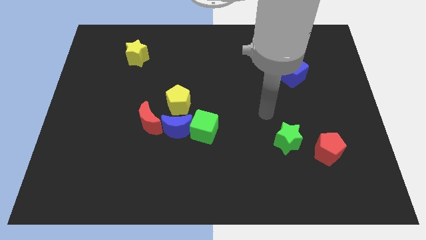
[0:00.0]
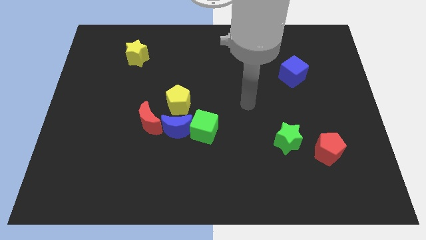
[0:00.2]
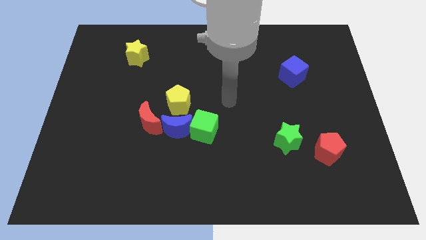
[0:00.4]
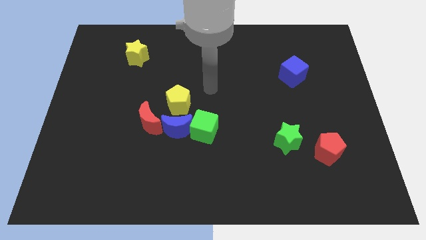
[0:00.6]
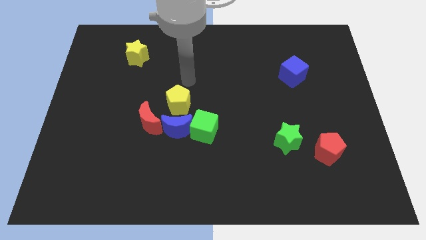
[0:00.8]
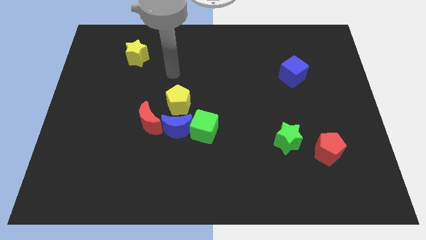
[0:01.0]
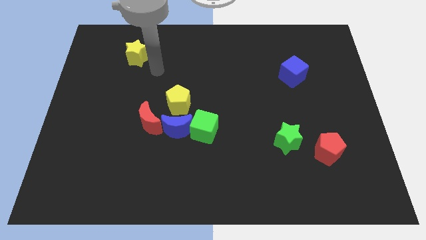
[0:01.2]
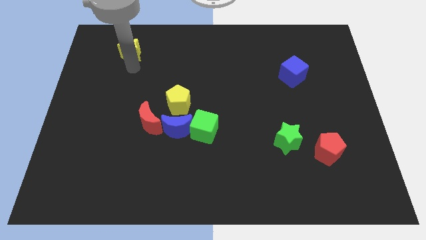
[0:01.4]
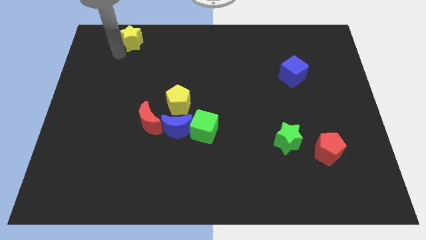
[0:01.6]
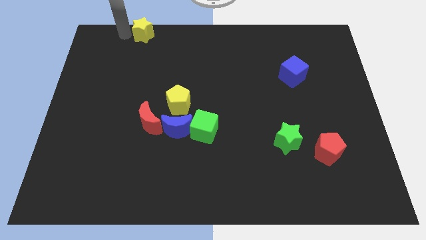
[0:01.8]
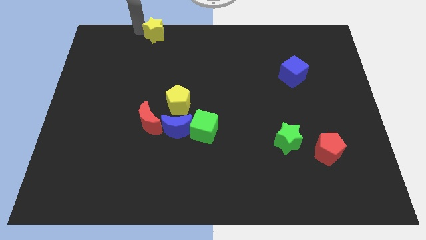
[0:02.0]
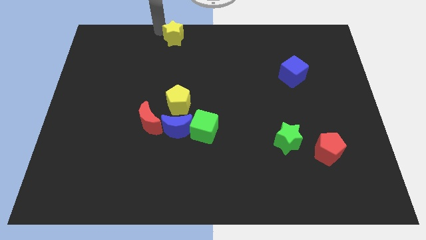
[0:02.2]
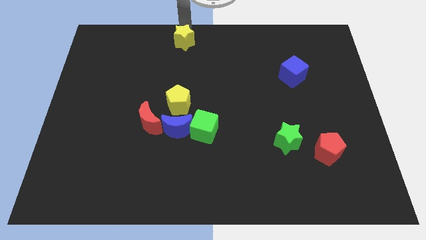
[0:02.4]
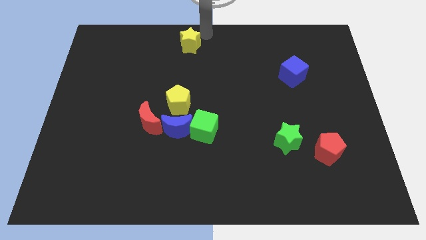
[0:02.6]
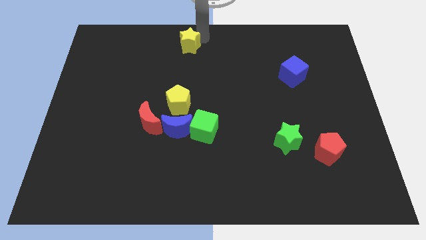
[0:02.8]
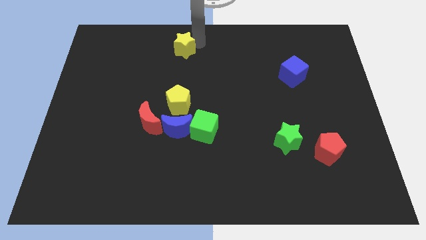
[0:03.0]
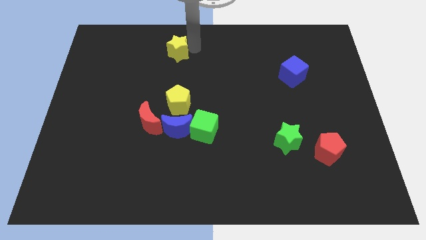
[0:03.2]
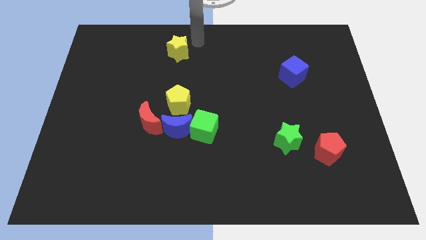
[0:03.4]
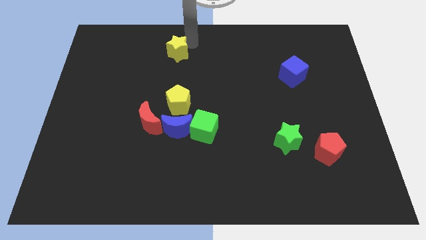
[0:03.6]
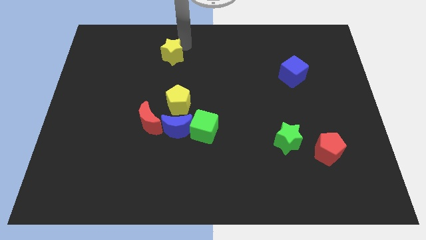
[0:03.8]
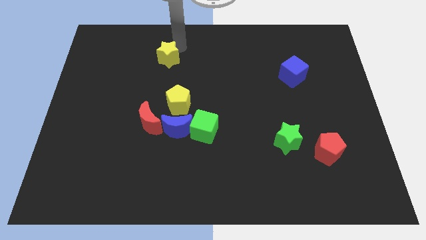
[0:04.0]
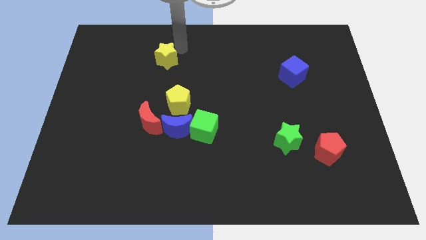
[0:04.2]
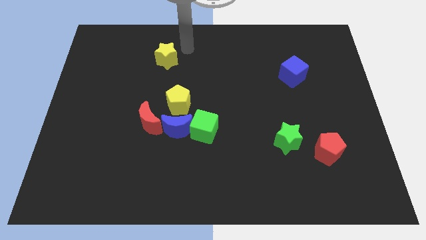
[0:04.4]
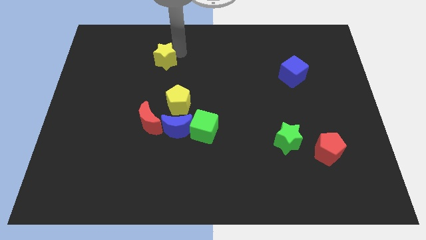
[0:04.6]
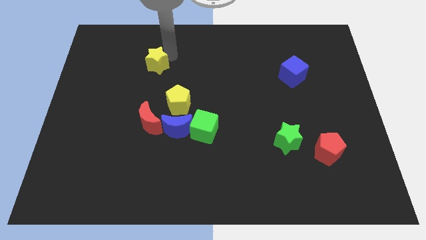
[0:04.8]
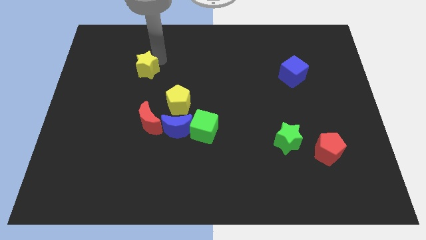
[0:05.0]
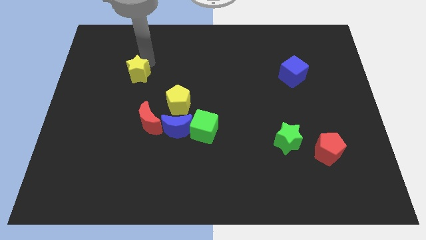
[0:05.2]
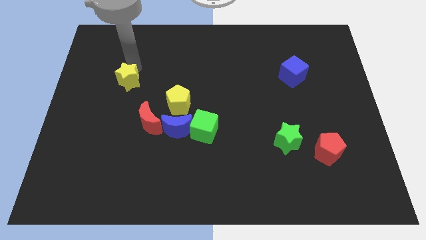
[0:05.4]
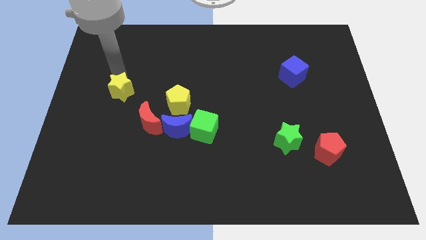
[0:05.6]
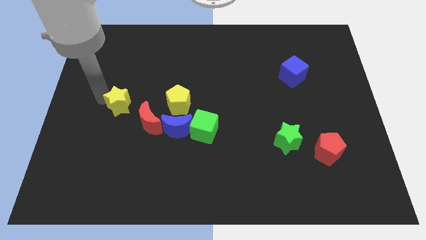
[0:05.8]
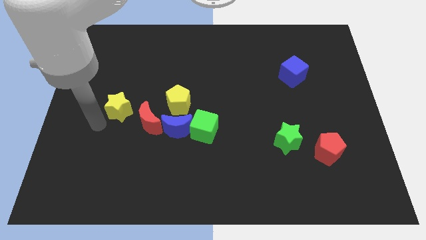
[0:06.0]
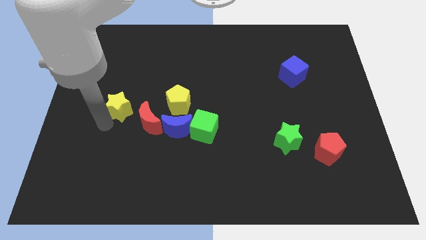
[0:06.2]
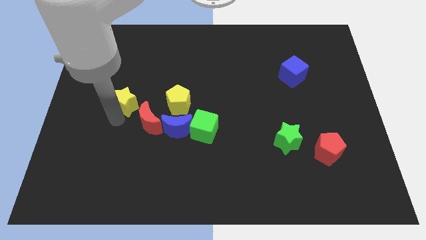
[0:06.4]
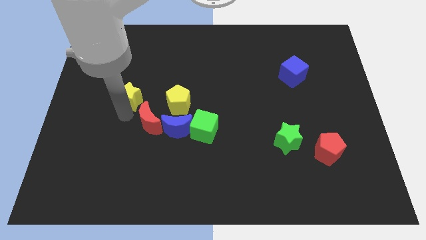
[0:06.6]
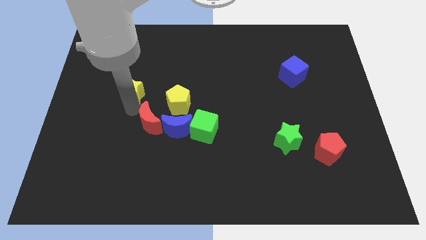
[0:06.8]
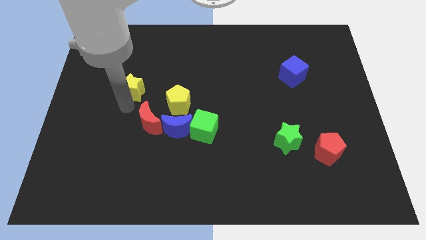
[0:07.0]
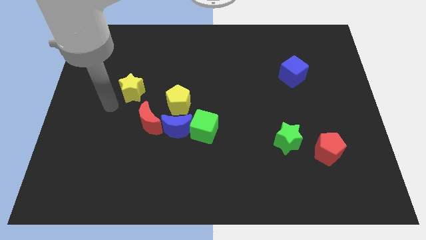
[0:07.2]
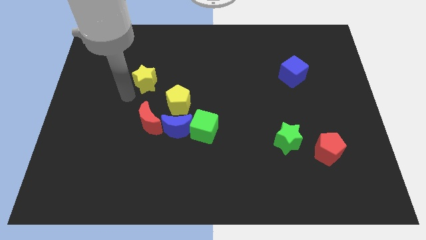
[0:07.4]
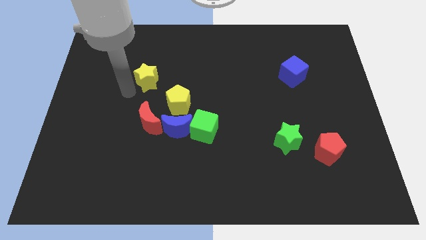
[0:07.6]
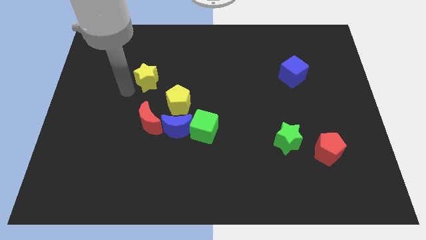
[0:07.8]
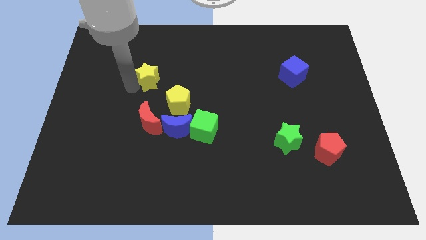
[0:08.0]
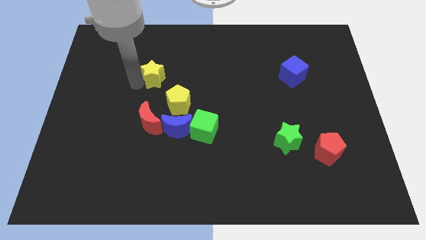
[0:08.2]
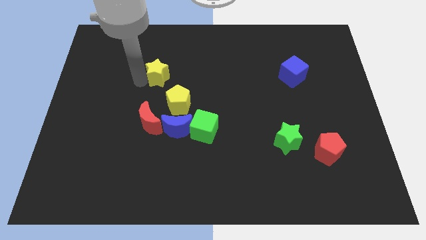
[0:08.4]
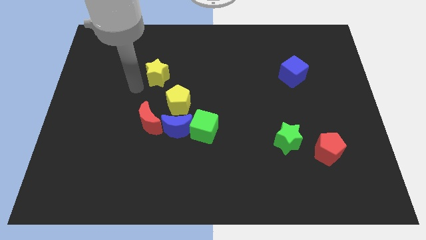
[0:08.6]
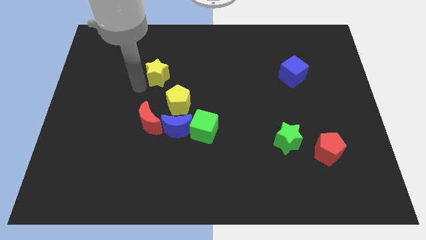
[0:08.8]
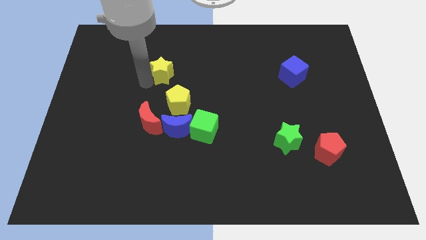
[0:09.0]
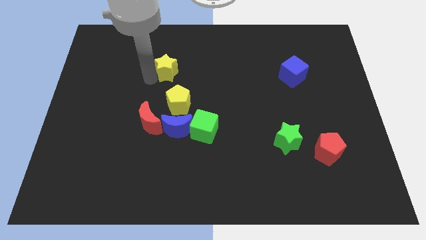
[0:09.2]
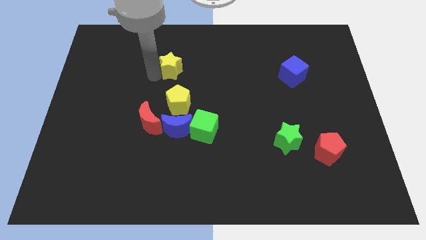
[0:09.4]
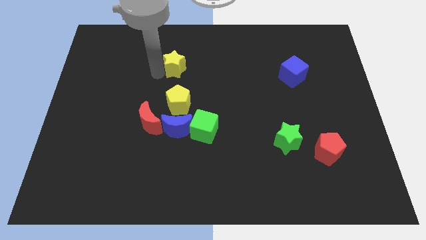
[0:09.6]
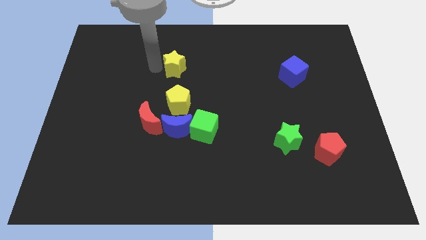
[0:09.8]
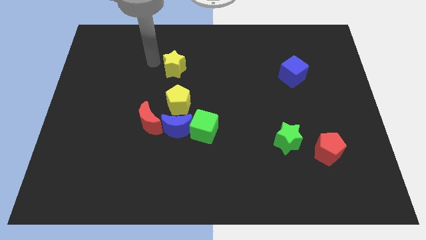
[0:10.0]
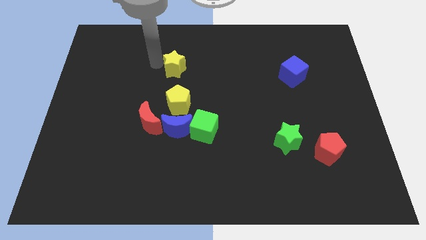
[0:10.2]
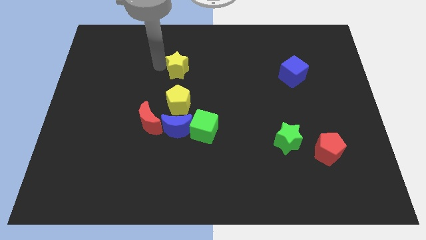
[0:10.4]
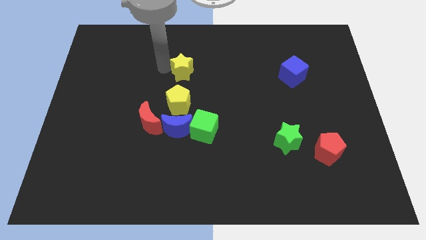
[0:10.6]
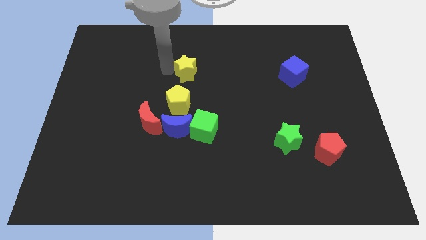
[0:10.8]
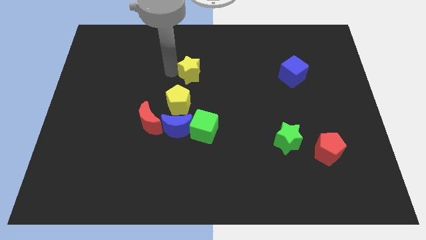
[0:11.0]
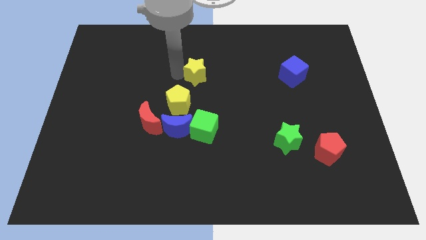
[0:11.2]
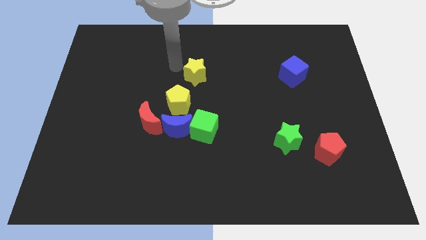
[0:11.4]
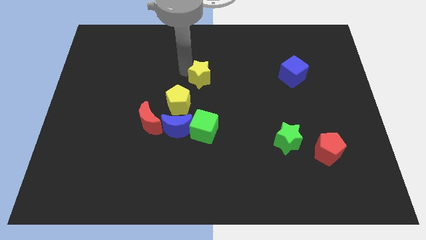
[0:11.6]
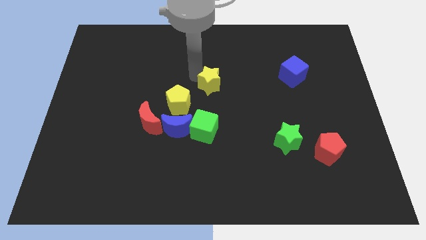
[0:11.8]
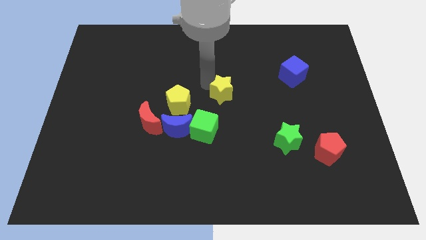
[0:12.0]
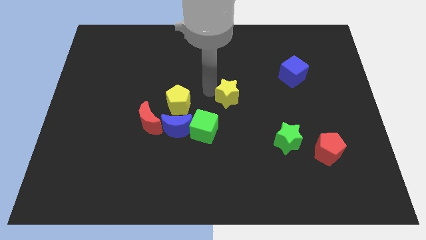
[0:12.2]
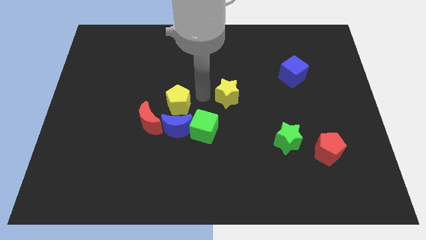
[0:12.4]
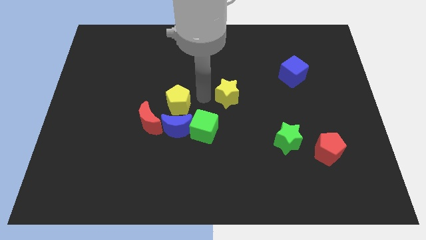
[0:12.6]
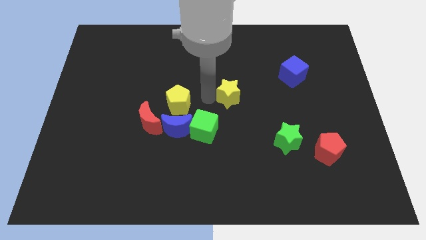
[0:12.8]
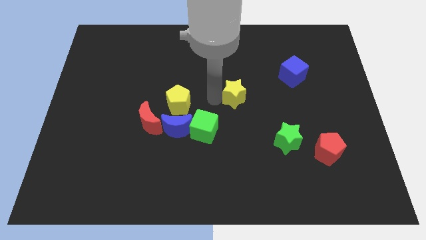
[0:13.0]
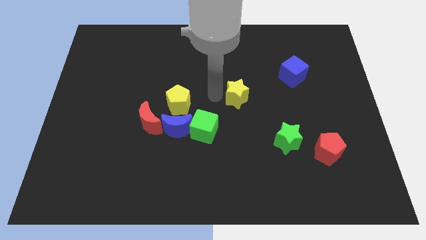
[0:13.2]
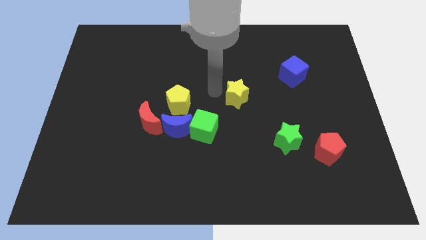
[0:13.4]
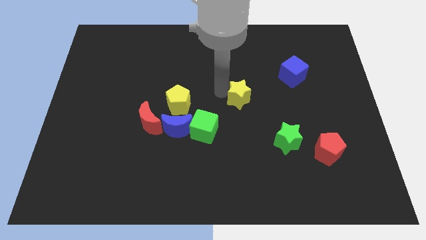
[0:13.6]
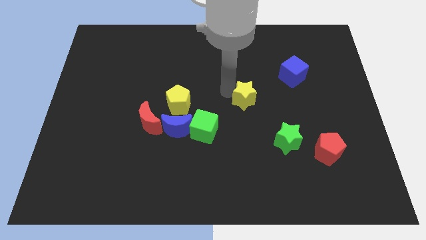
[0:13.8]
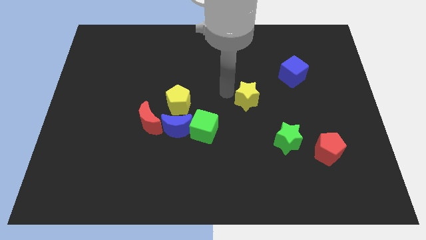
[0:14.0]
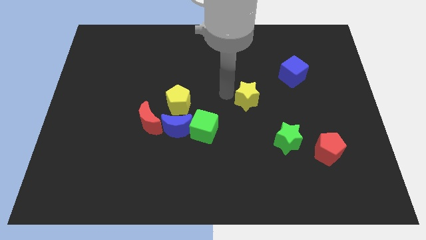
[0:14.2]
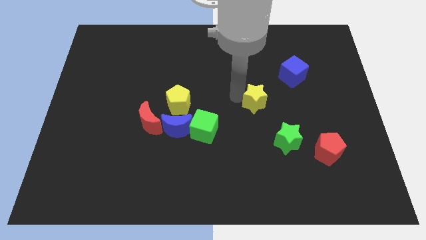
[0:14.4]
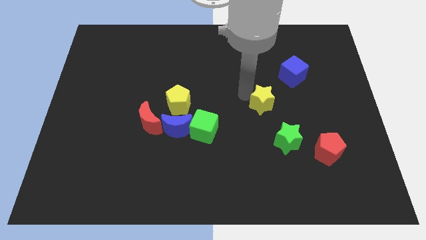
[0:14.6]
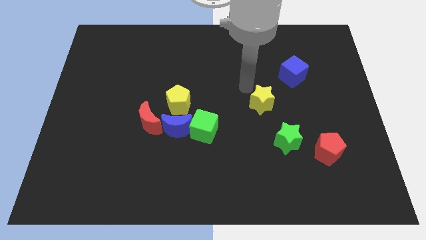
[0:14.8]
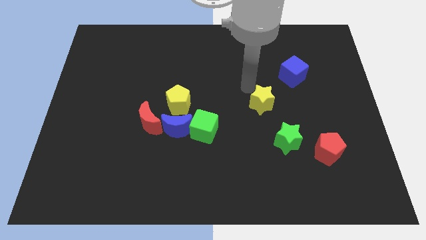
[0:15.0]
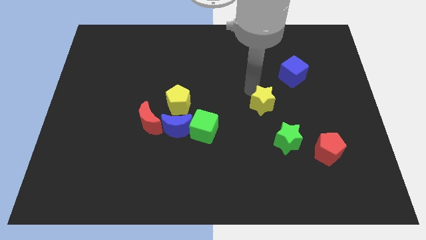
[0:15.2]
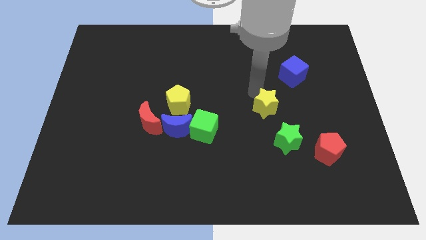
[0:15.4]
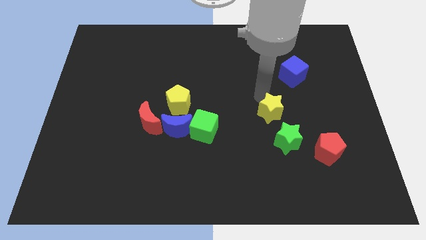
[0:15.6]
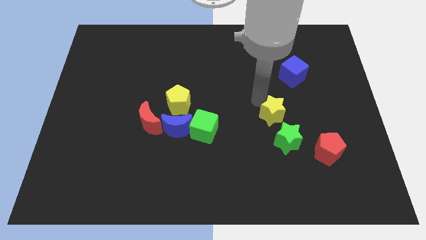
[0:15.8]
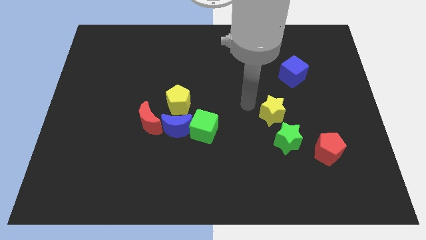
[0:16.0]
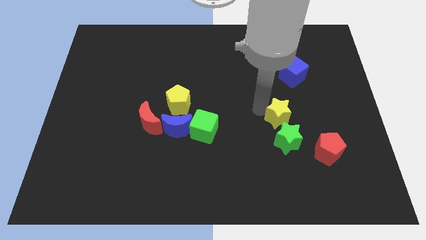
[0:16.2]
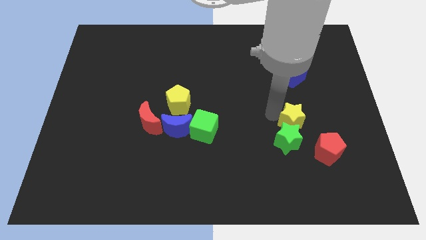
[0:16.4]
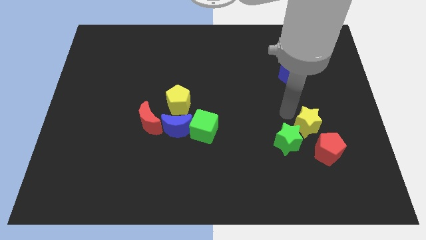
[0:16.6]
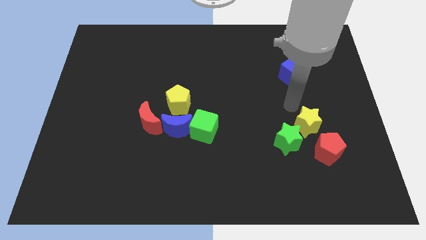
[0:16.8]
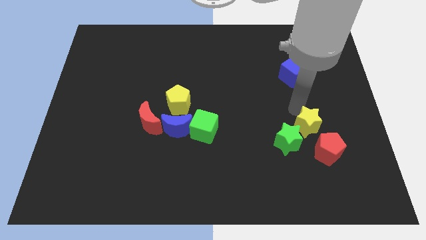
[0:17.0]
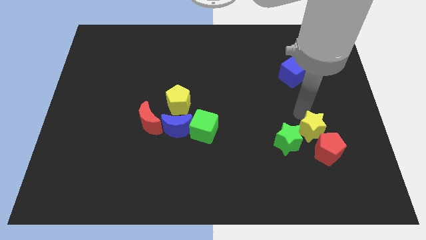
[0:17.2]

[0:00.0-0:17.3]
move the yellow star close to the red pentagon
